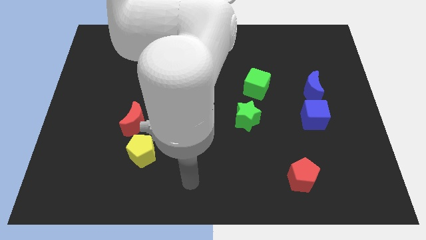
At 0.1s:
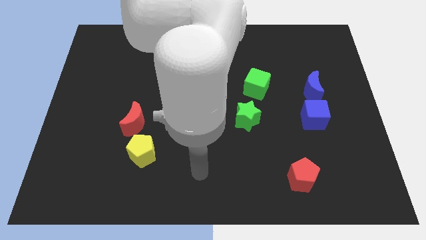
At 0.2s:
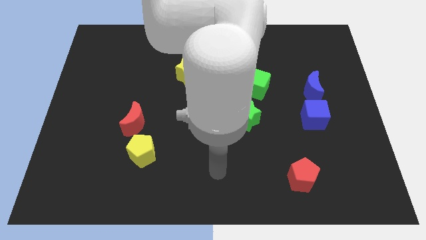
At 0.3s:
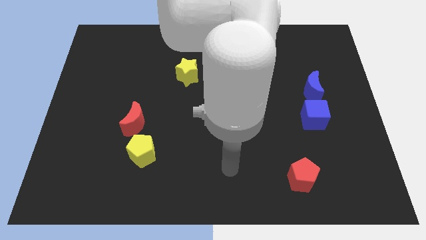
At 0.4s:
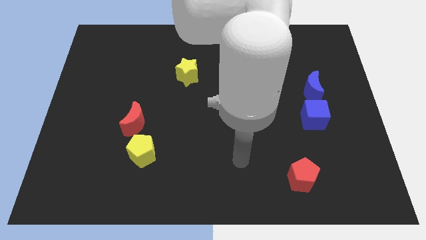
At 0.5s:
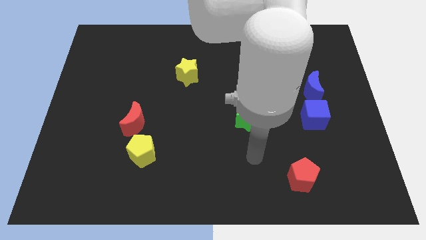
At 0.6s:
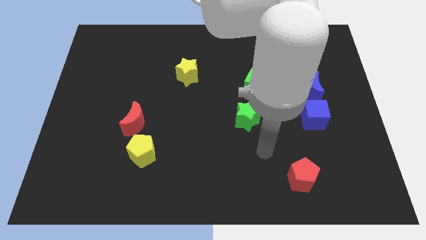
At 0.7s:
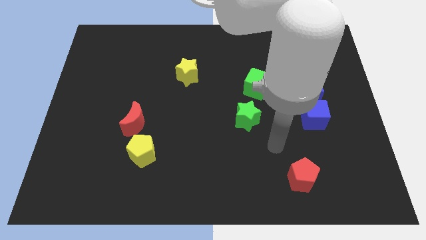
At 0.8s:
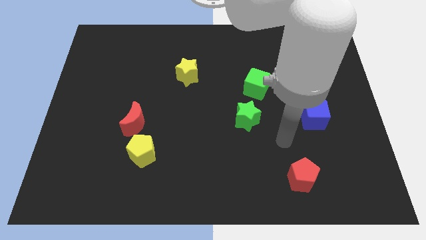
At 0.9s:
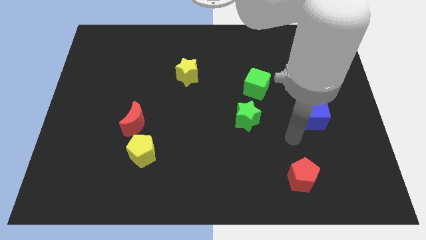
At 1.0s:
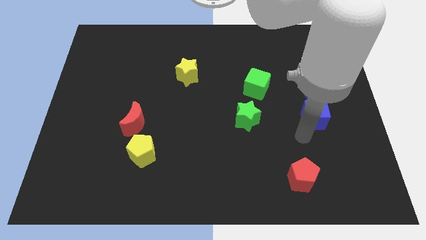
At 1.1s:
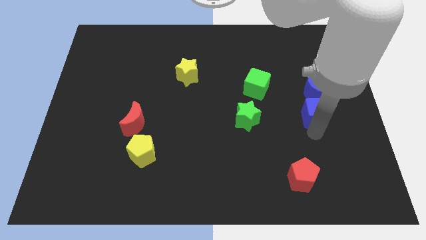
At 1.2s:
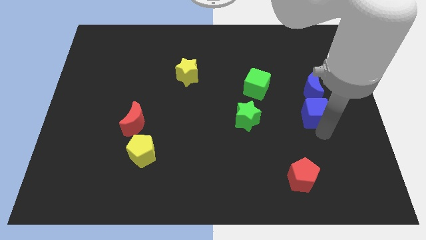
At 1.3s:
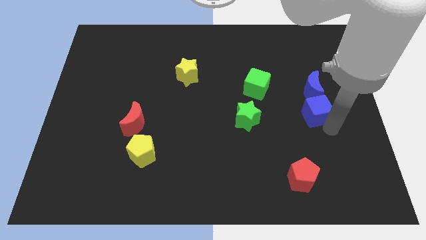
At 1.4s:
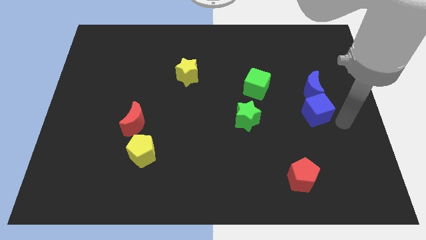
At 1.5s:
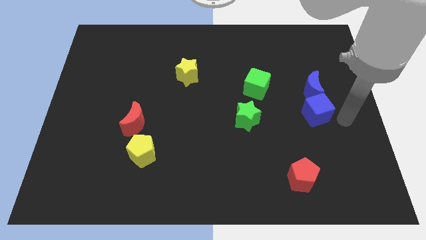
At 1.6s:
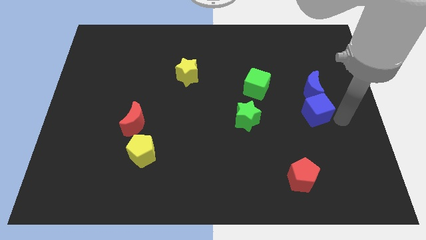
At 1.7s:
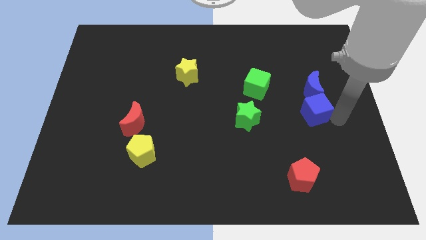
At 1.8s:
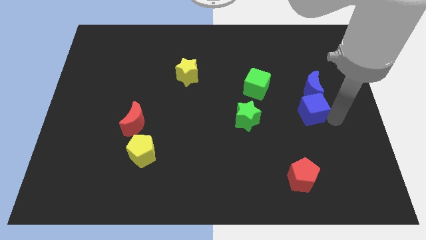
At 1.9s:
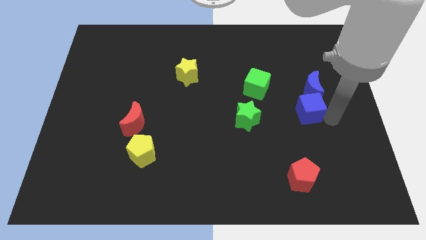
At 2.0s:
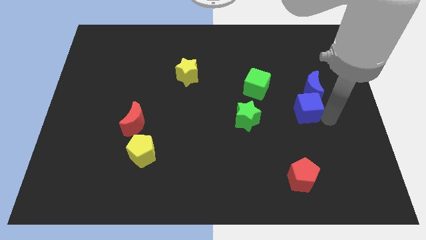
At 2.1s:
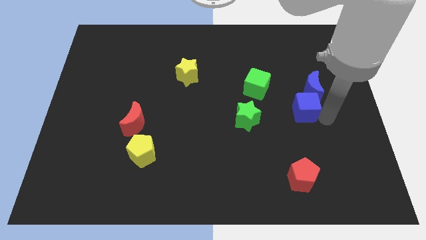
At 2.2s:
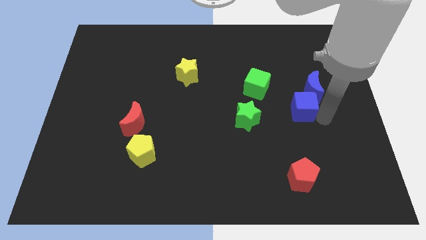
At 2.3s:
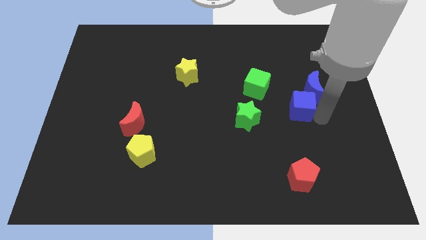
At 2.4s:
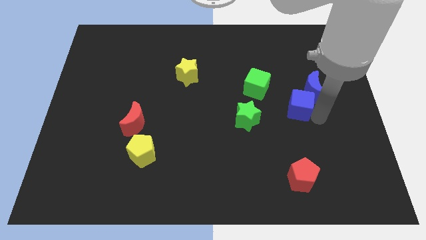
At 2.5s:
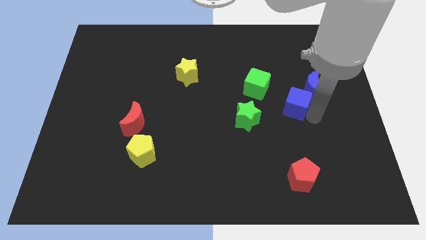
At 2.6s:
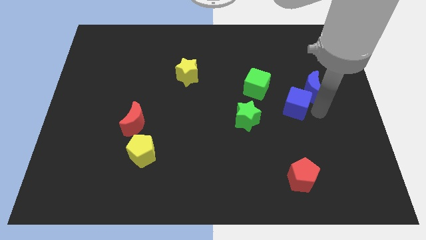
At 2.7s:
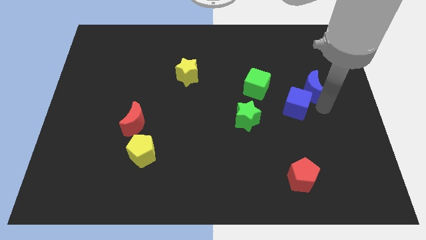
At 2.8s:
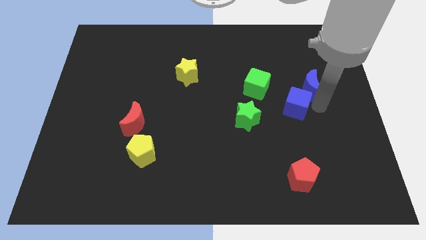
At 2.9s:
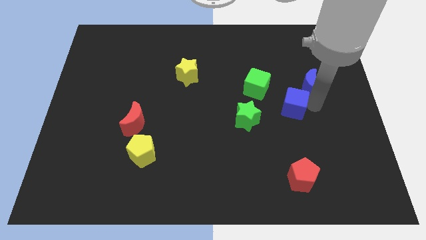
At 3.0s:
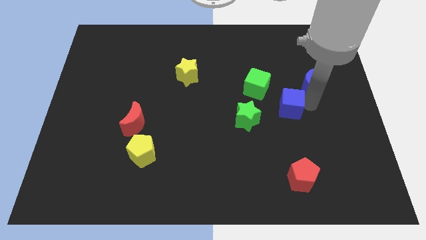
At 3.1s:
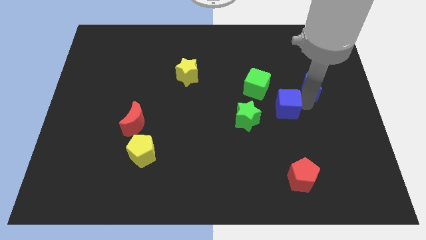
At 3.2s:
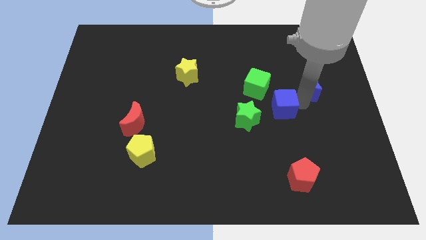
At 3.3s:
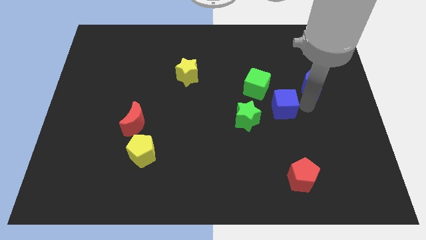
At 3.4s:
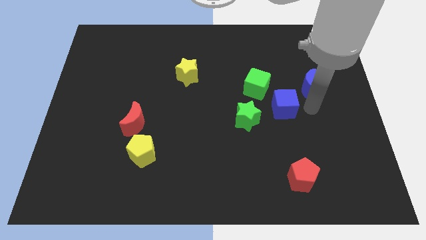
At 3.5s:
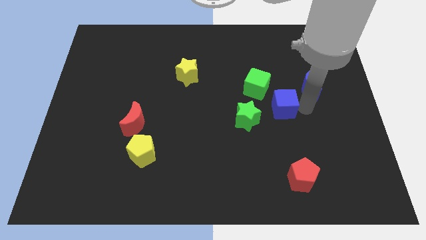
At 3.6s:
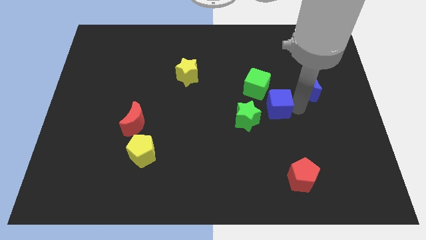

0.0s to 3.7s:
slightly push the blue cube to the left

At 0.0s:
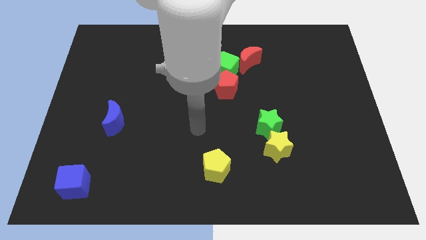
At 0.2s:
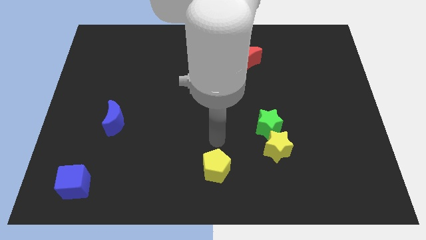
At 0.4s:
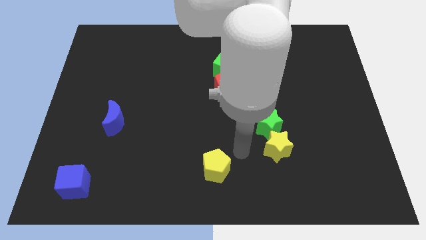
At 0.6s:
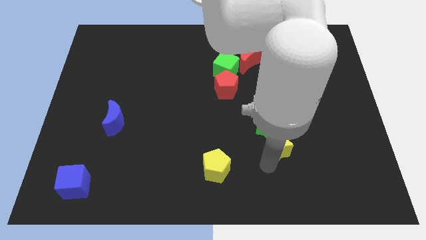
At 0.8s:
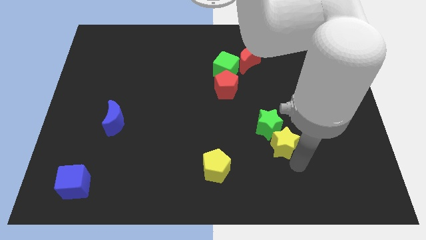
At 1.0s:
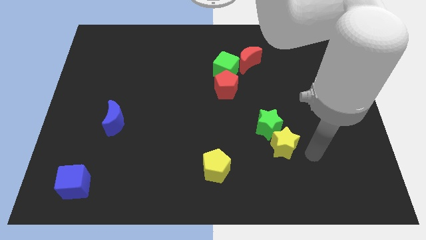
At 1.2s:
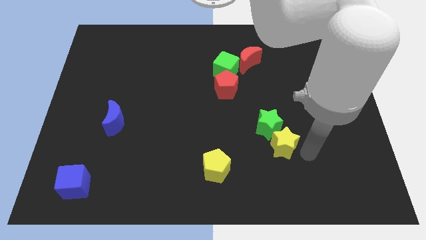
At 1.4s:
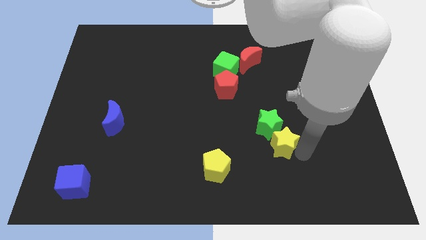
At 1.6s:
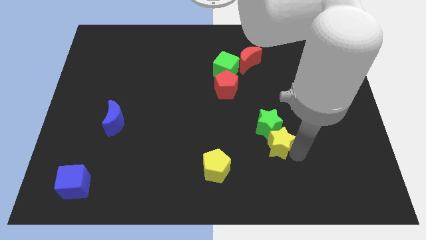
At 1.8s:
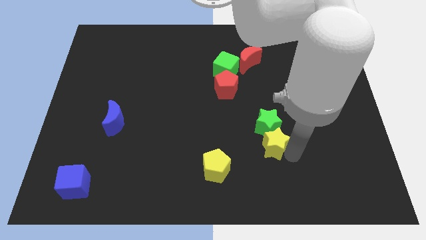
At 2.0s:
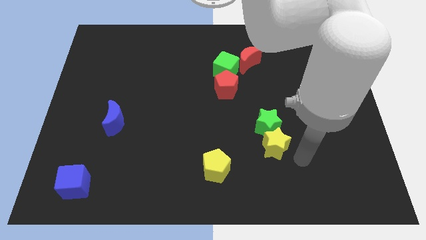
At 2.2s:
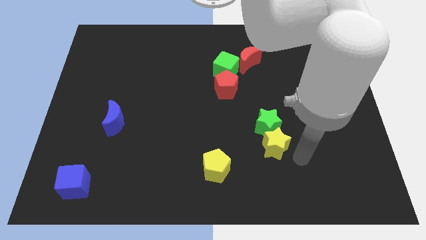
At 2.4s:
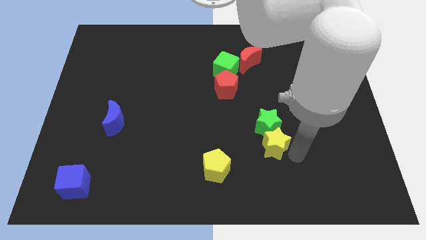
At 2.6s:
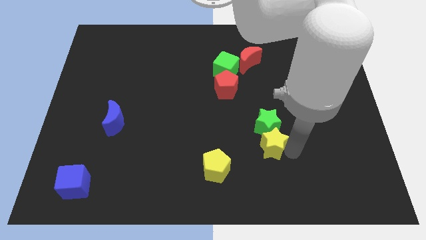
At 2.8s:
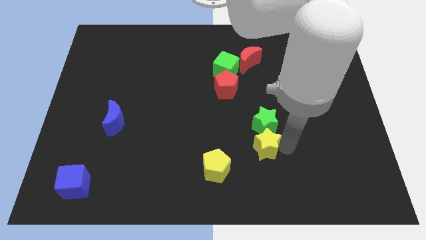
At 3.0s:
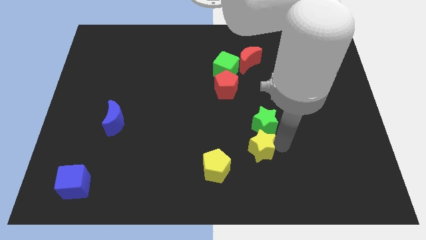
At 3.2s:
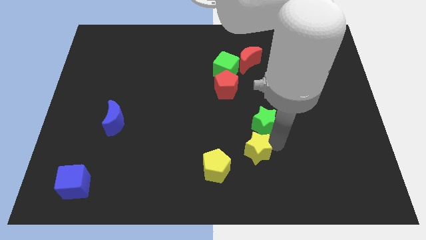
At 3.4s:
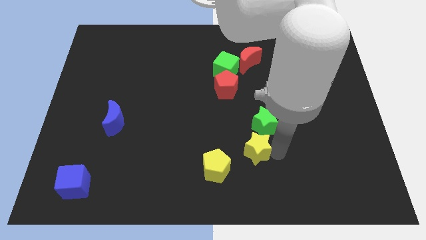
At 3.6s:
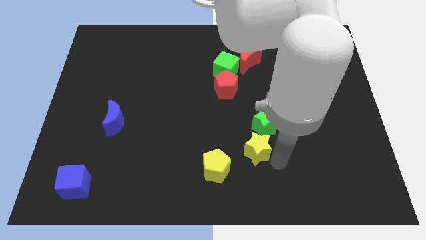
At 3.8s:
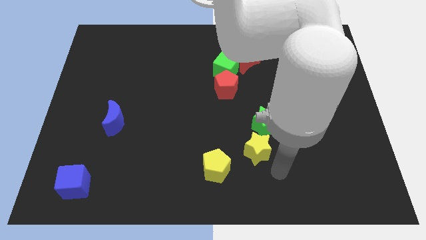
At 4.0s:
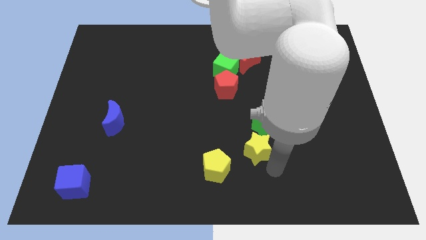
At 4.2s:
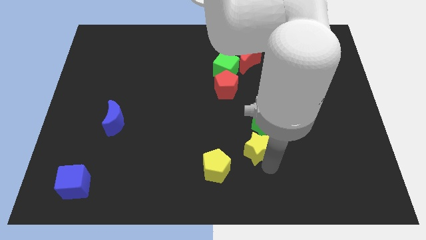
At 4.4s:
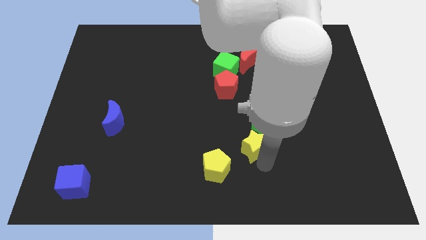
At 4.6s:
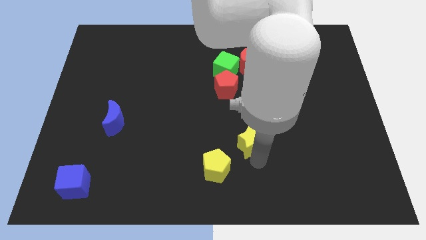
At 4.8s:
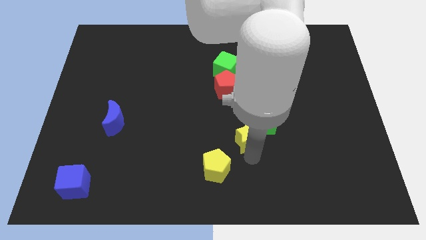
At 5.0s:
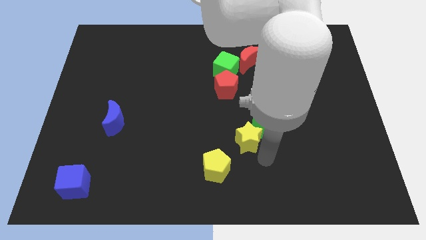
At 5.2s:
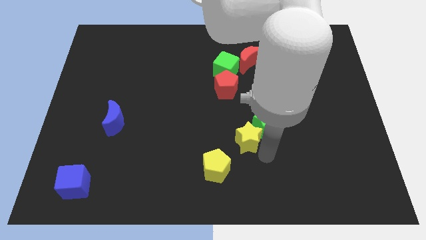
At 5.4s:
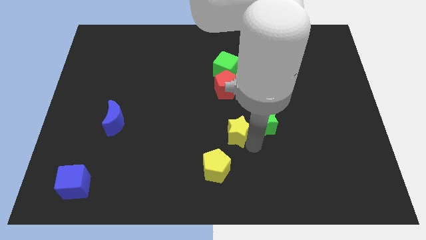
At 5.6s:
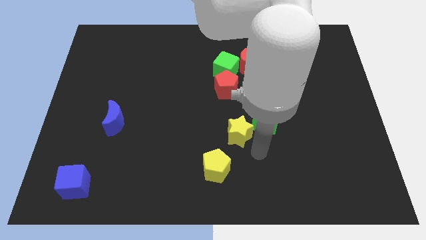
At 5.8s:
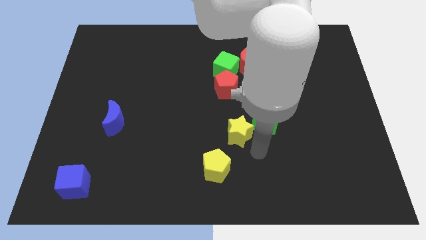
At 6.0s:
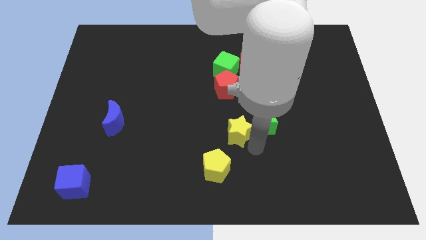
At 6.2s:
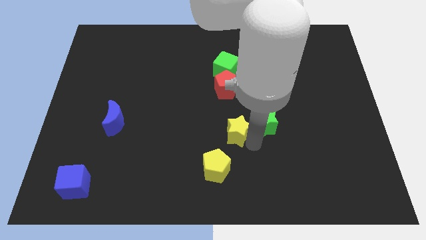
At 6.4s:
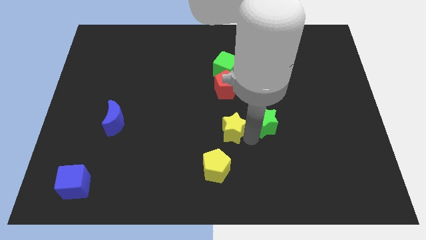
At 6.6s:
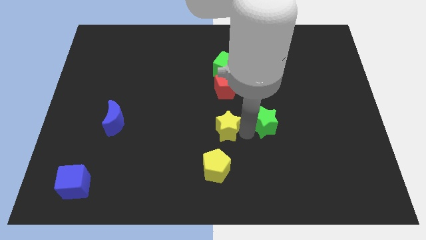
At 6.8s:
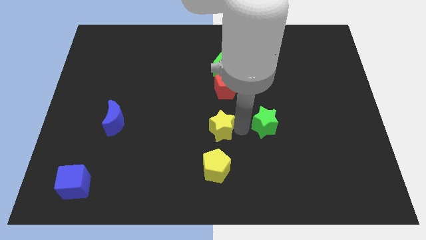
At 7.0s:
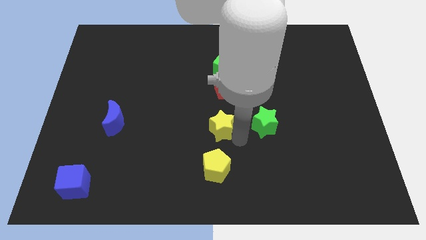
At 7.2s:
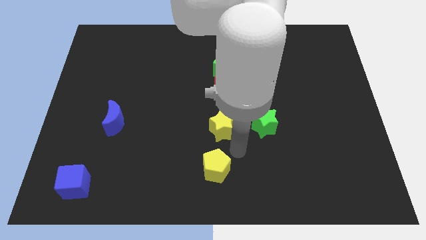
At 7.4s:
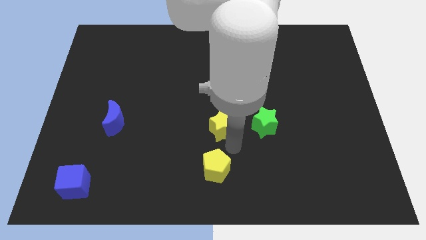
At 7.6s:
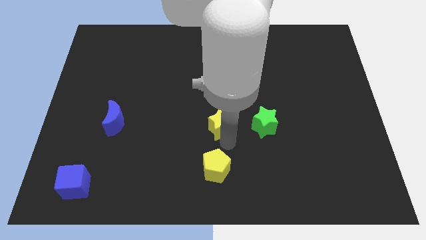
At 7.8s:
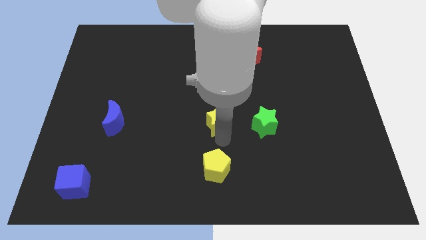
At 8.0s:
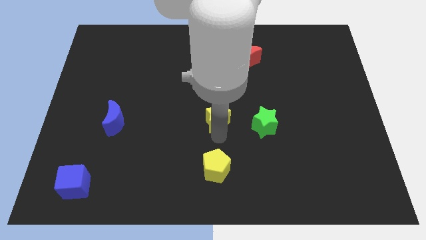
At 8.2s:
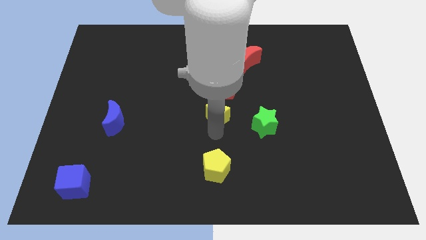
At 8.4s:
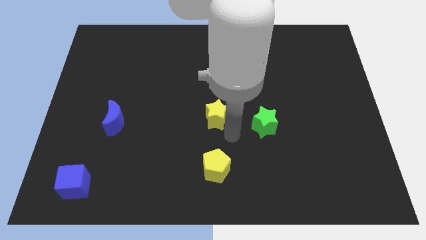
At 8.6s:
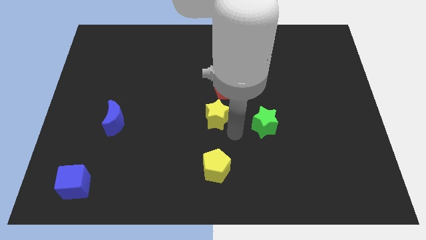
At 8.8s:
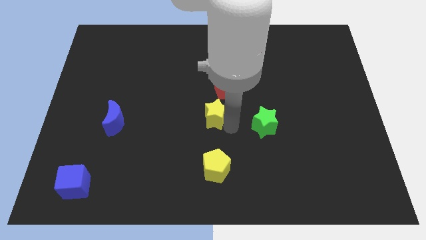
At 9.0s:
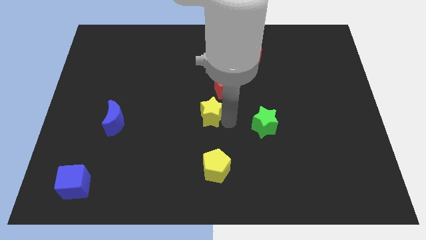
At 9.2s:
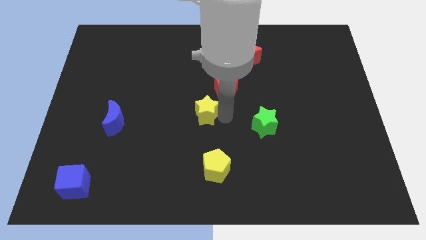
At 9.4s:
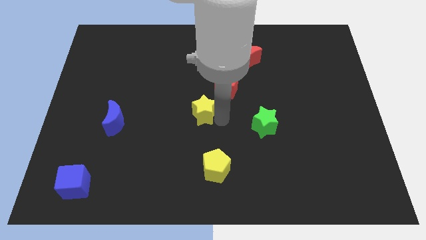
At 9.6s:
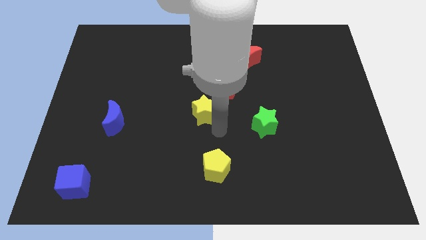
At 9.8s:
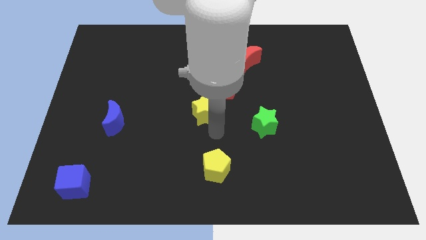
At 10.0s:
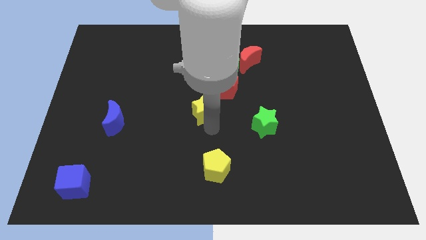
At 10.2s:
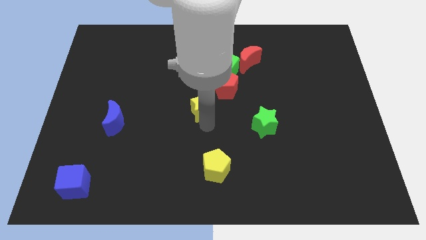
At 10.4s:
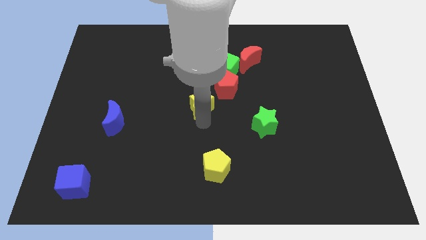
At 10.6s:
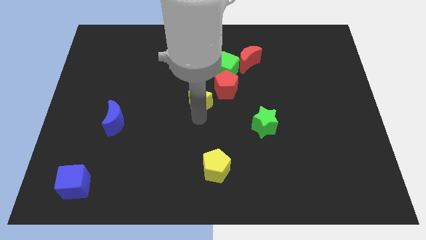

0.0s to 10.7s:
move the yellow star upwards and then to the left
